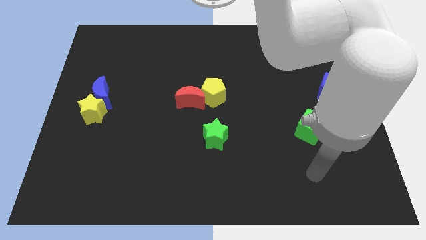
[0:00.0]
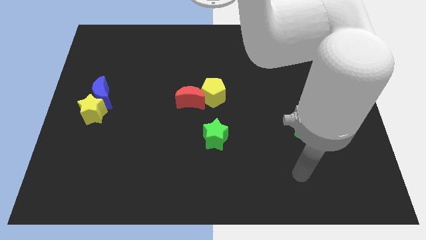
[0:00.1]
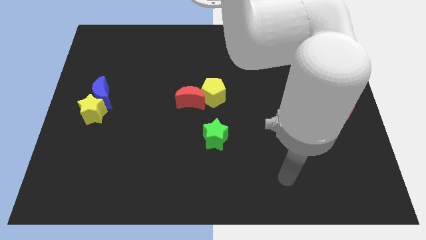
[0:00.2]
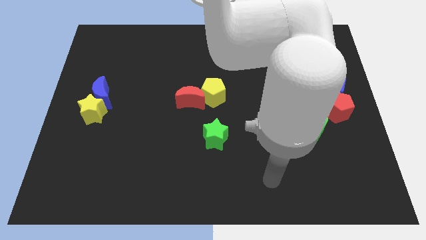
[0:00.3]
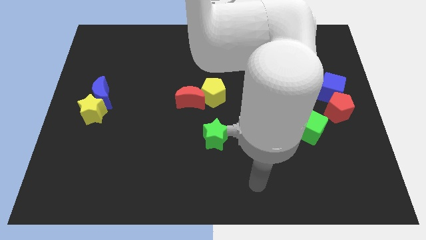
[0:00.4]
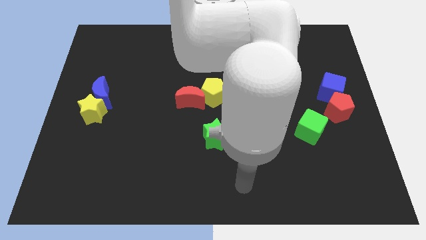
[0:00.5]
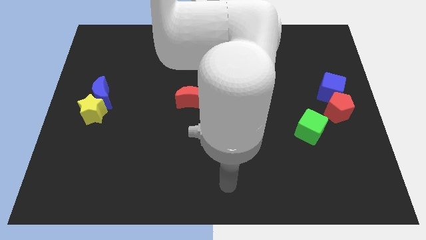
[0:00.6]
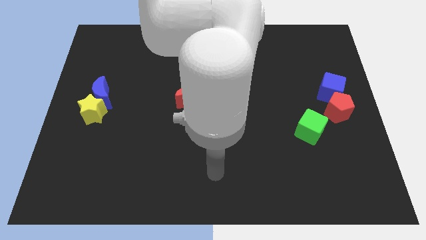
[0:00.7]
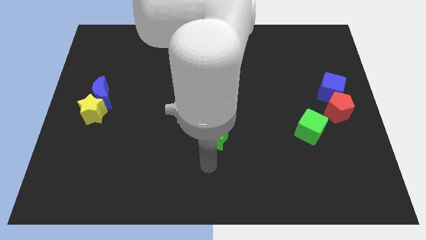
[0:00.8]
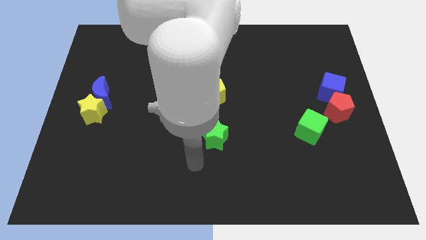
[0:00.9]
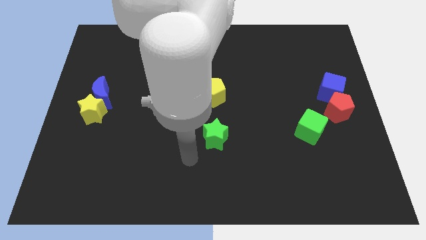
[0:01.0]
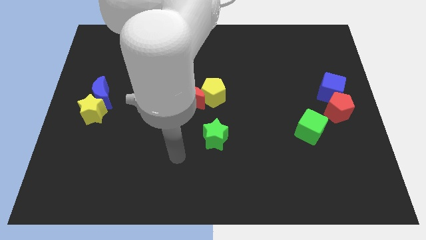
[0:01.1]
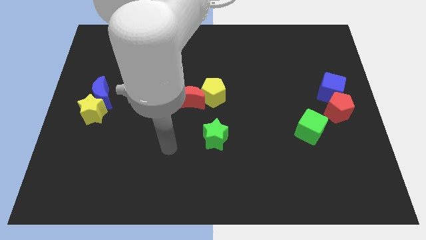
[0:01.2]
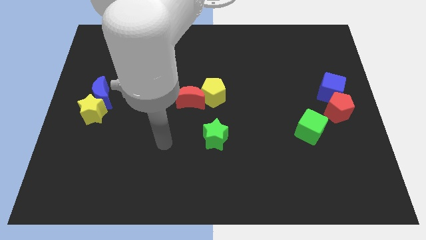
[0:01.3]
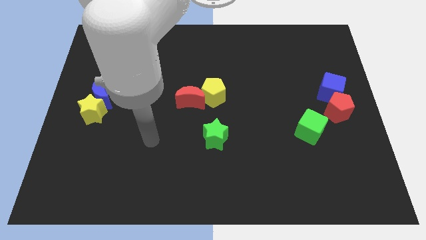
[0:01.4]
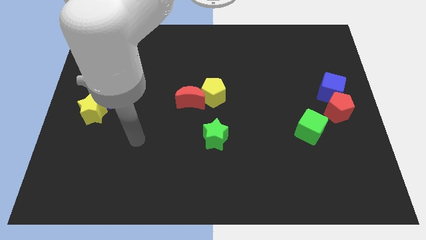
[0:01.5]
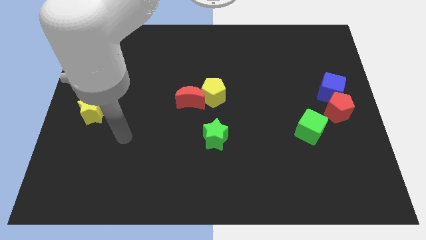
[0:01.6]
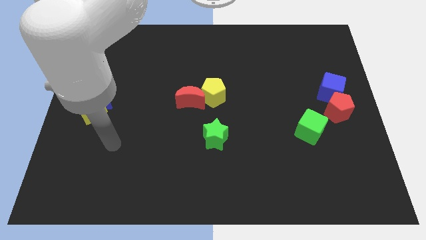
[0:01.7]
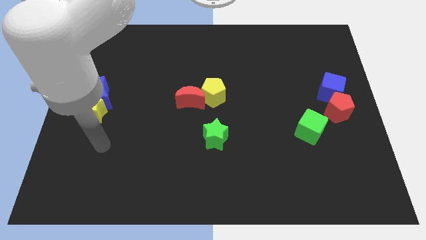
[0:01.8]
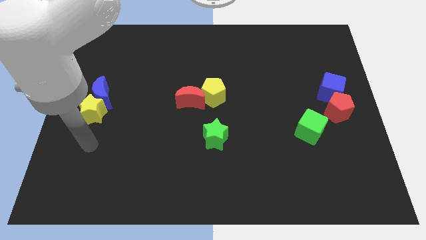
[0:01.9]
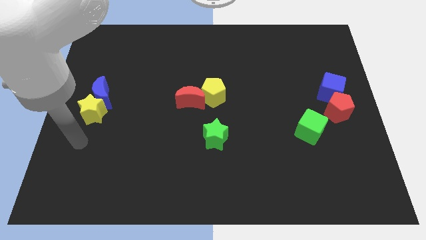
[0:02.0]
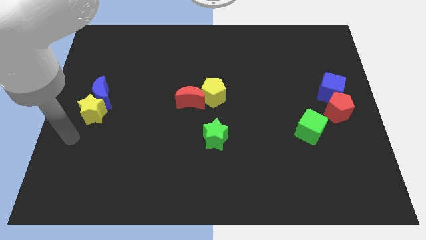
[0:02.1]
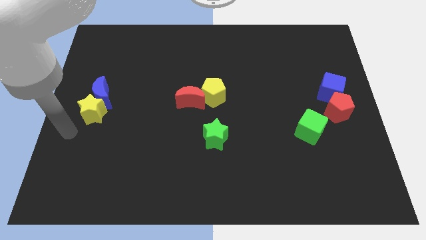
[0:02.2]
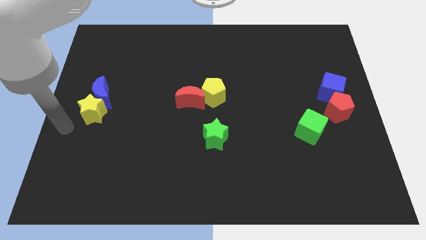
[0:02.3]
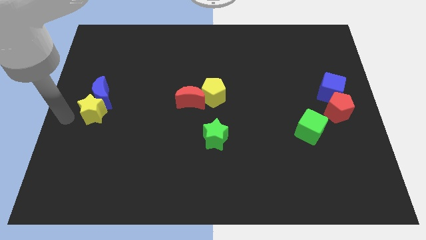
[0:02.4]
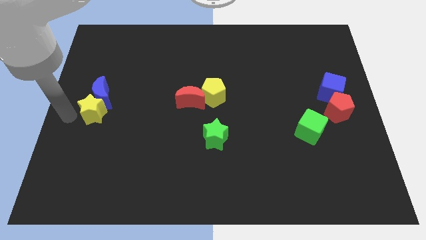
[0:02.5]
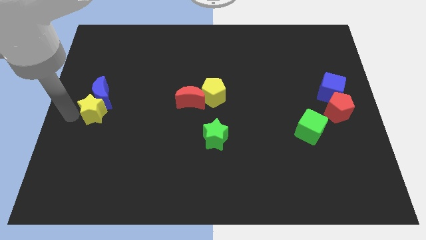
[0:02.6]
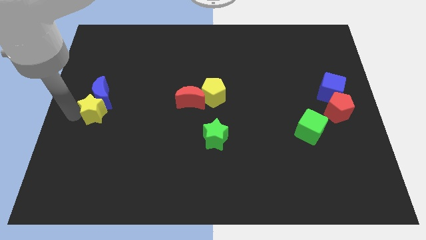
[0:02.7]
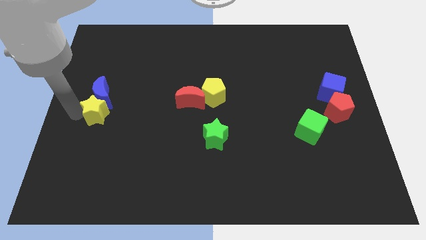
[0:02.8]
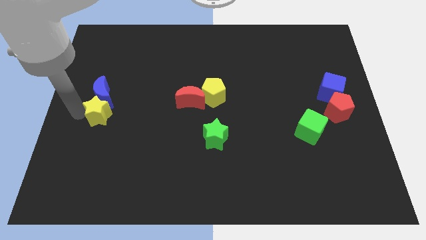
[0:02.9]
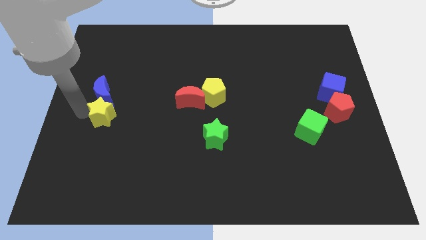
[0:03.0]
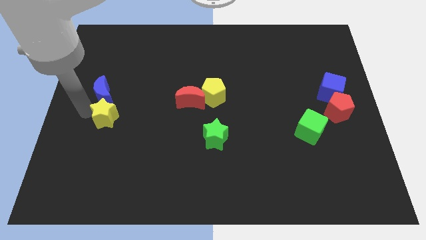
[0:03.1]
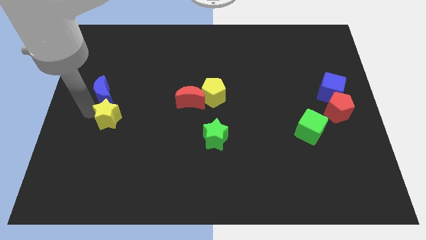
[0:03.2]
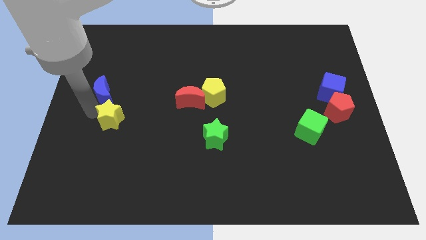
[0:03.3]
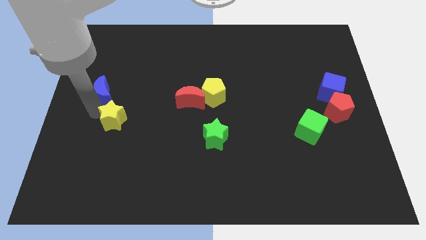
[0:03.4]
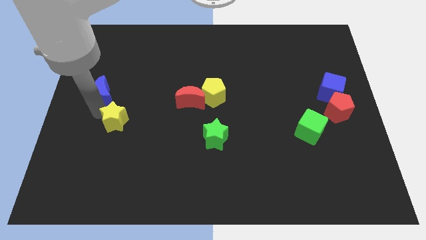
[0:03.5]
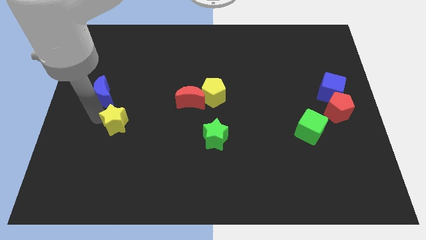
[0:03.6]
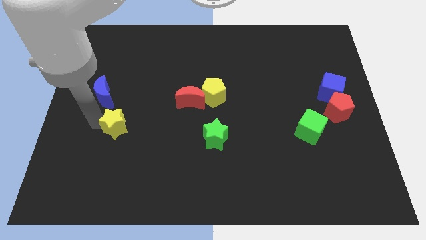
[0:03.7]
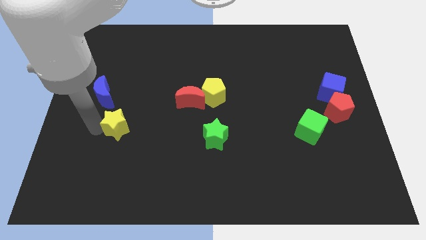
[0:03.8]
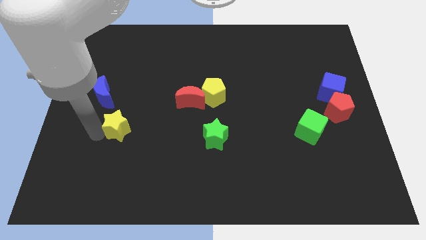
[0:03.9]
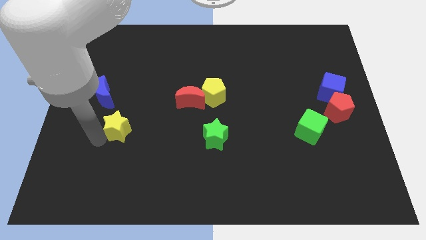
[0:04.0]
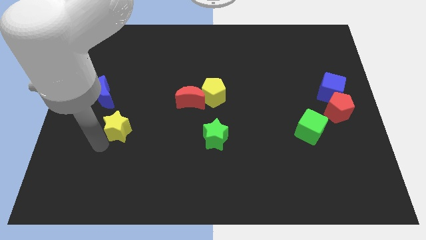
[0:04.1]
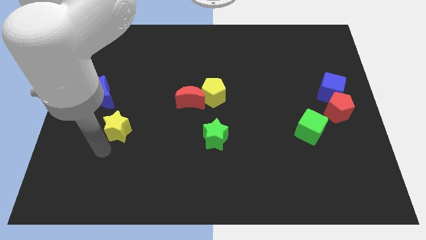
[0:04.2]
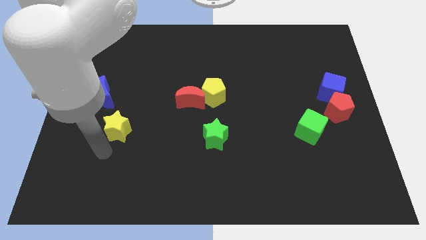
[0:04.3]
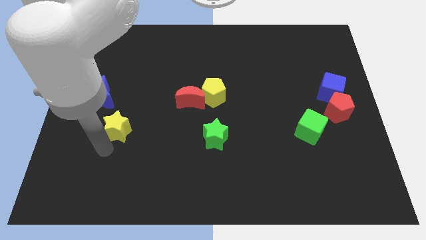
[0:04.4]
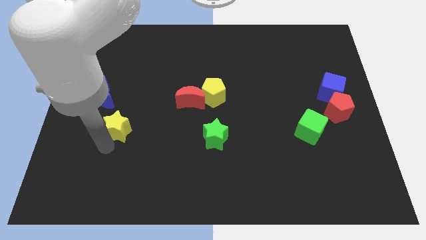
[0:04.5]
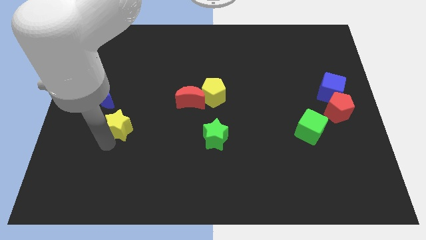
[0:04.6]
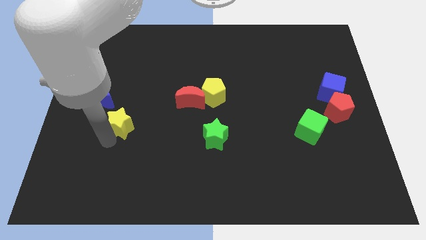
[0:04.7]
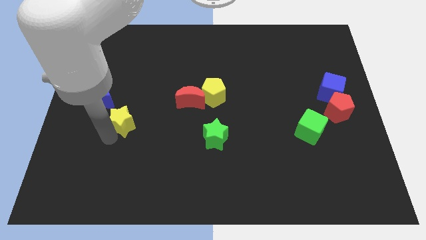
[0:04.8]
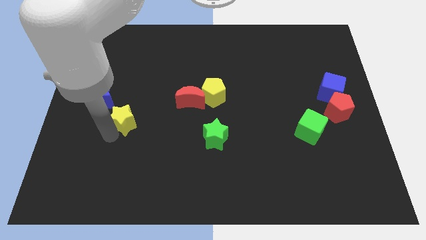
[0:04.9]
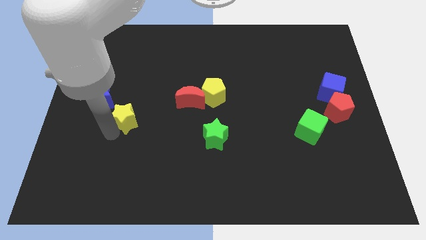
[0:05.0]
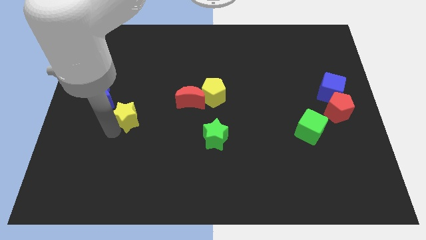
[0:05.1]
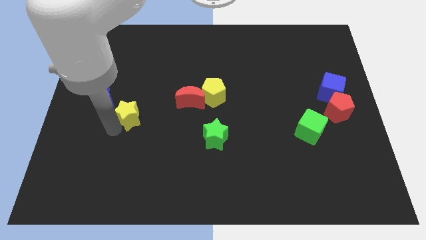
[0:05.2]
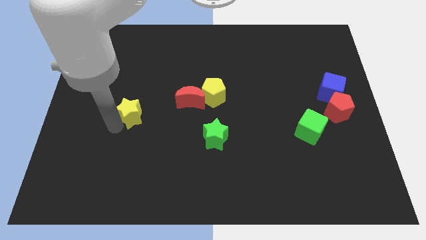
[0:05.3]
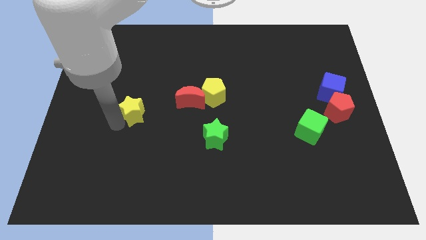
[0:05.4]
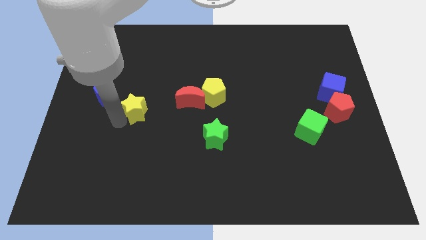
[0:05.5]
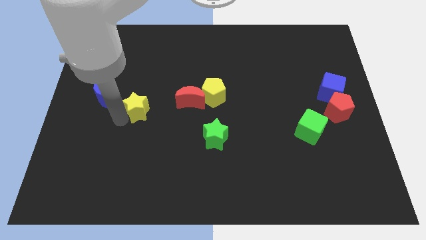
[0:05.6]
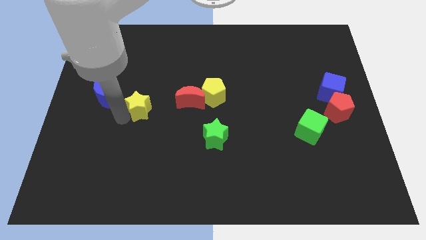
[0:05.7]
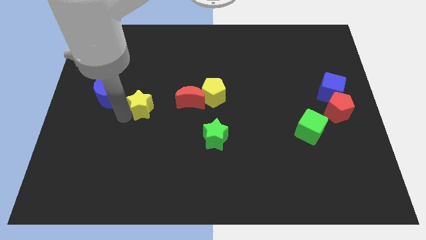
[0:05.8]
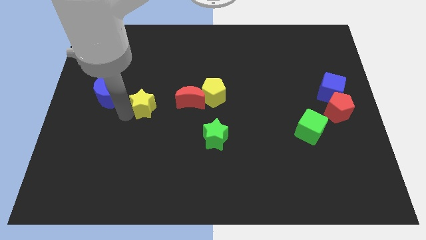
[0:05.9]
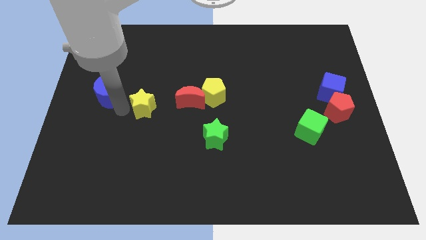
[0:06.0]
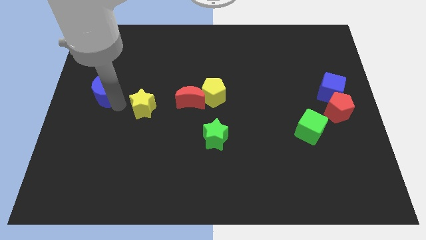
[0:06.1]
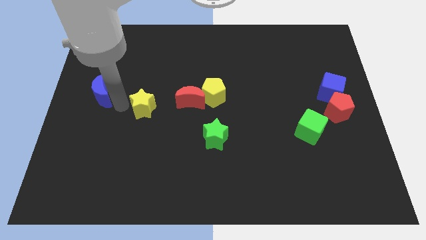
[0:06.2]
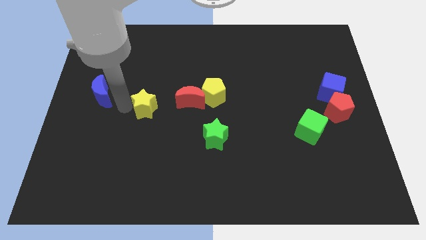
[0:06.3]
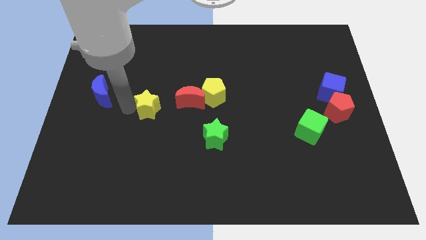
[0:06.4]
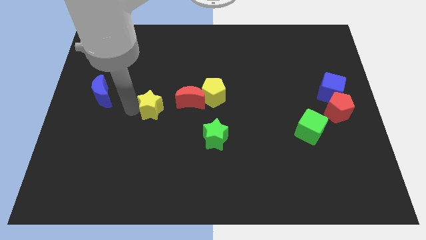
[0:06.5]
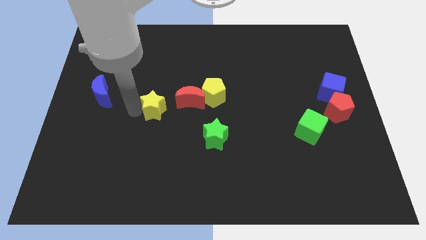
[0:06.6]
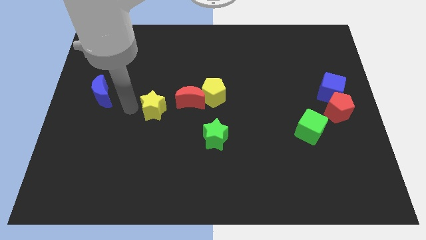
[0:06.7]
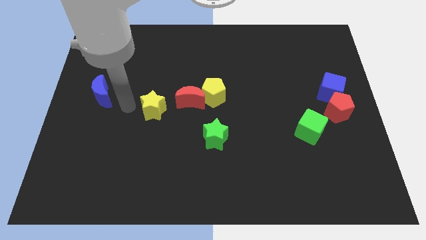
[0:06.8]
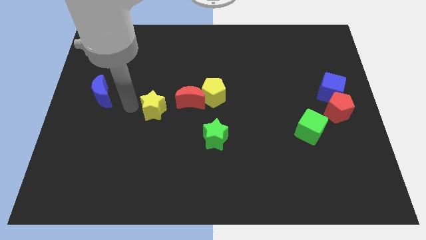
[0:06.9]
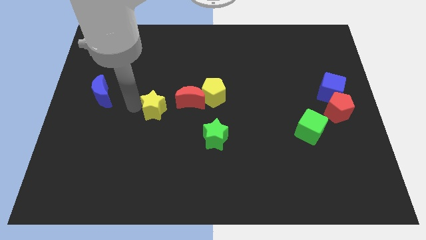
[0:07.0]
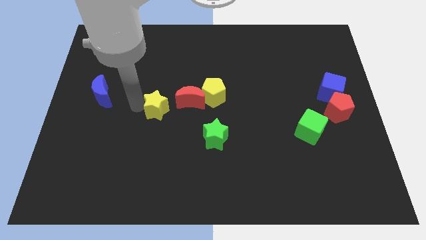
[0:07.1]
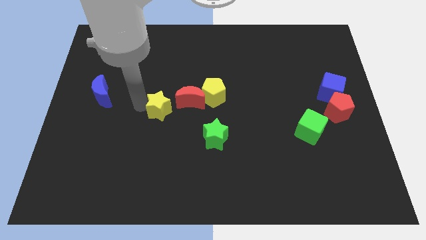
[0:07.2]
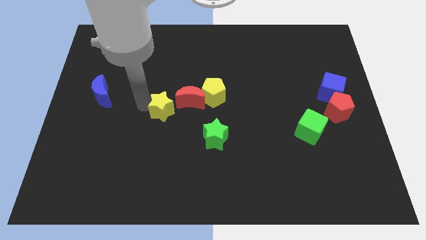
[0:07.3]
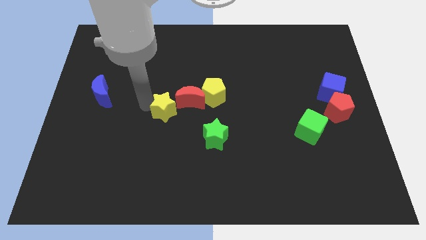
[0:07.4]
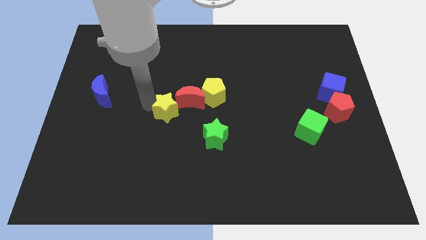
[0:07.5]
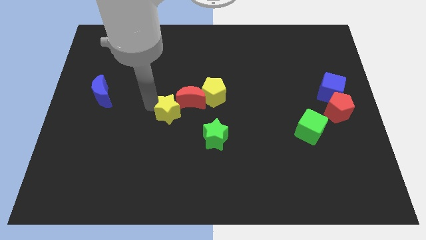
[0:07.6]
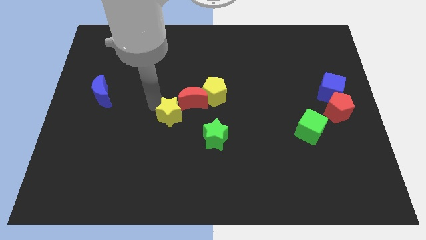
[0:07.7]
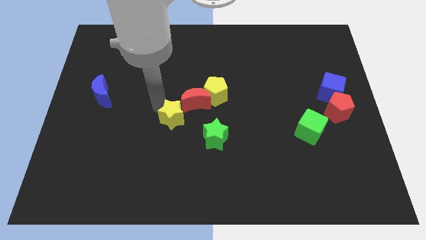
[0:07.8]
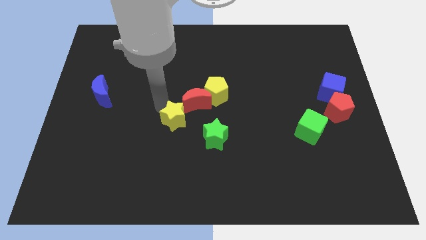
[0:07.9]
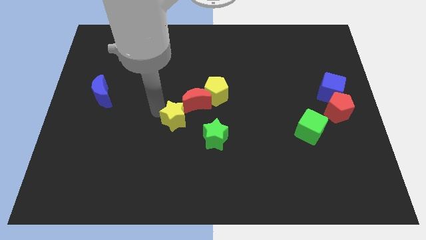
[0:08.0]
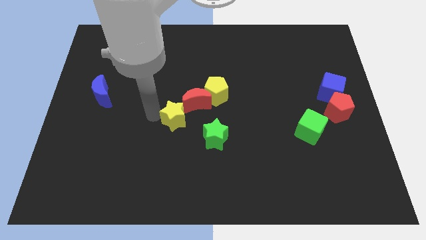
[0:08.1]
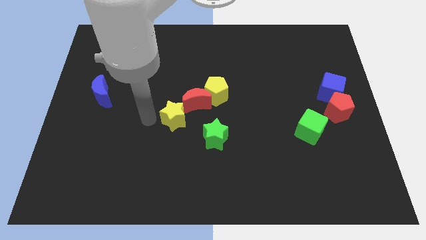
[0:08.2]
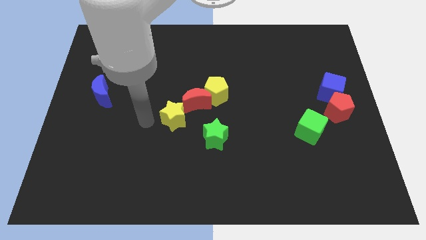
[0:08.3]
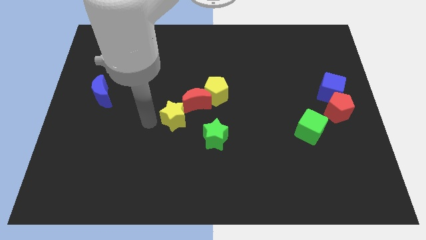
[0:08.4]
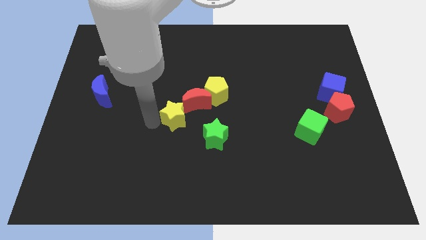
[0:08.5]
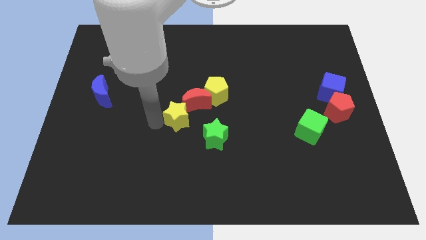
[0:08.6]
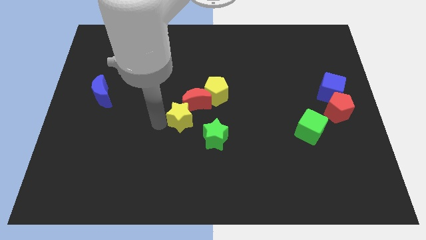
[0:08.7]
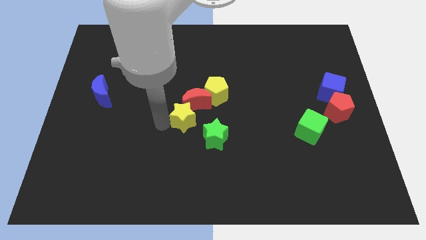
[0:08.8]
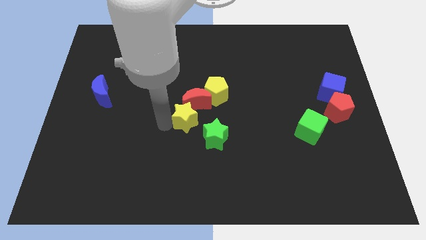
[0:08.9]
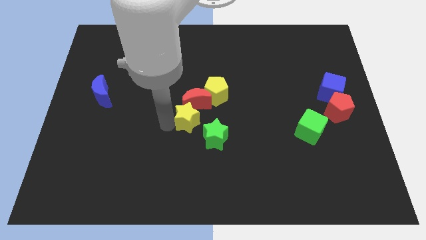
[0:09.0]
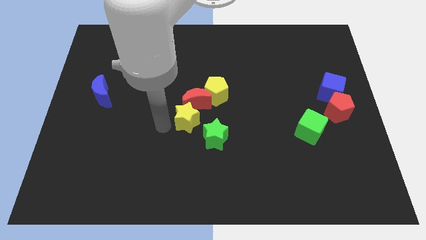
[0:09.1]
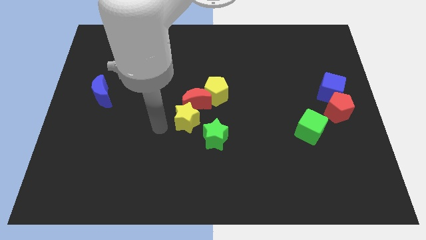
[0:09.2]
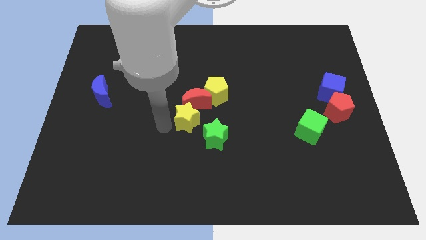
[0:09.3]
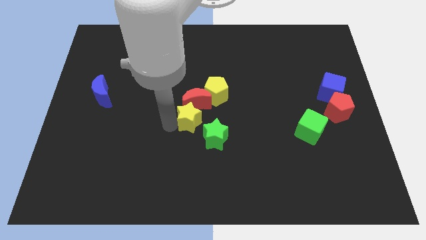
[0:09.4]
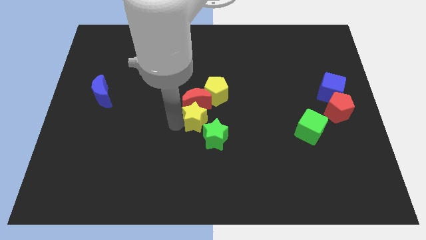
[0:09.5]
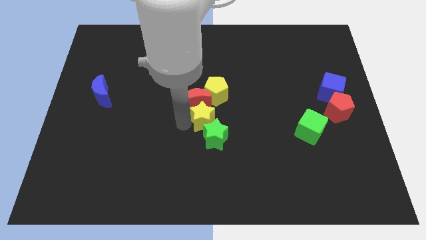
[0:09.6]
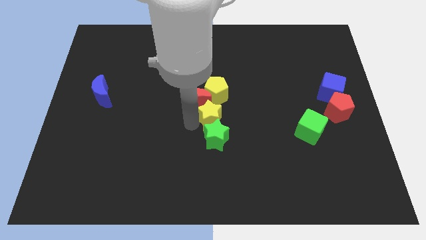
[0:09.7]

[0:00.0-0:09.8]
slide the yellow star to the right of the red moon
